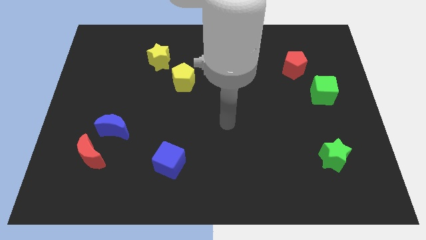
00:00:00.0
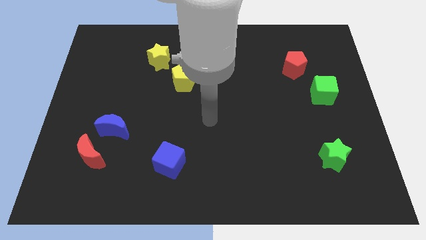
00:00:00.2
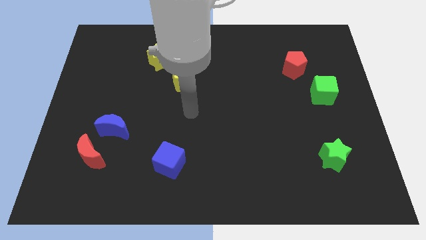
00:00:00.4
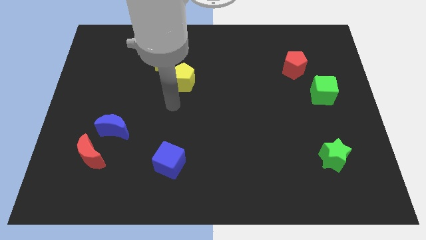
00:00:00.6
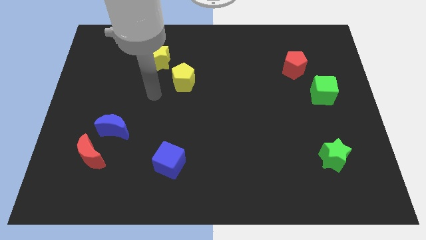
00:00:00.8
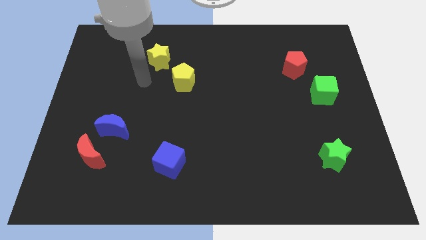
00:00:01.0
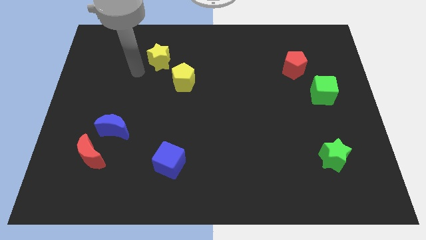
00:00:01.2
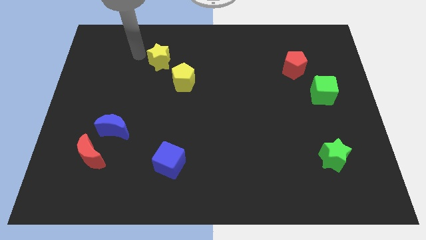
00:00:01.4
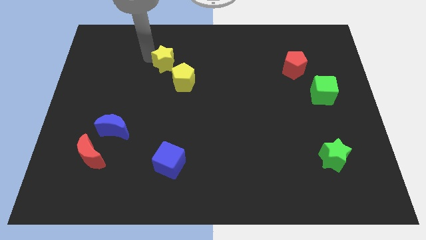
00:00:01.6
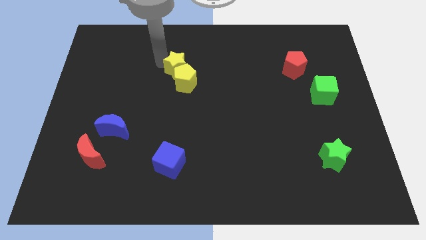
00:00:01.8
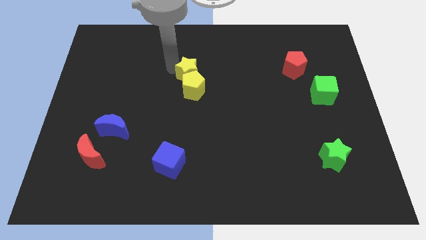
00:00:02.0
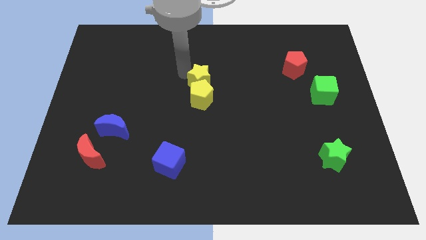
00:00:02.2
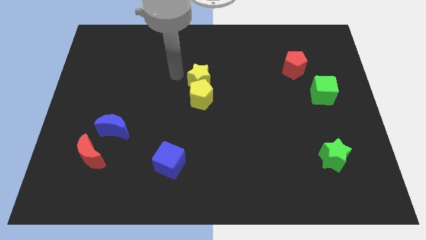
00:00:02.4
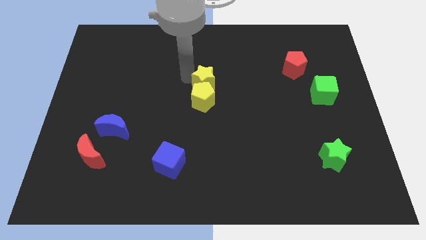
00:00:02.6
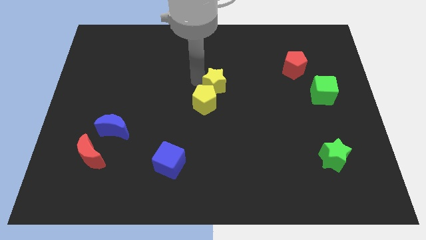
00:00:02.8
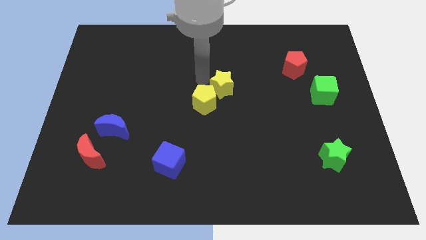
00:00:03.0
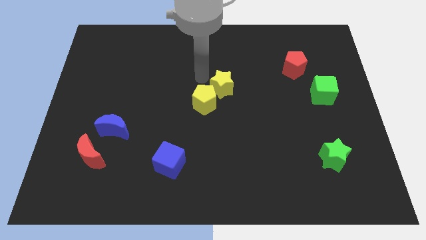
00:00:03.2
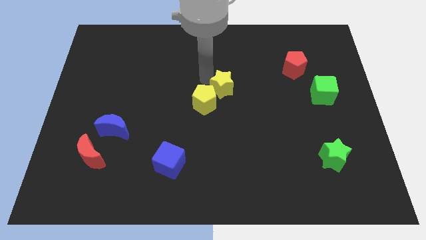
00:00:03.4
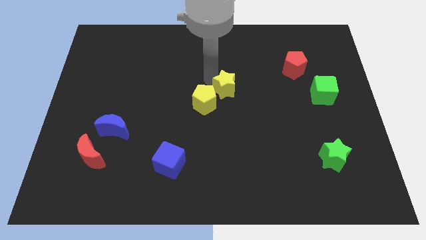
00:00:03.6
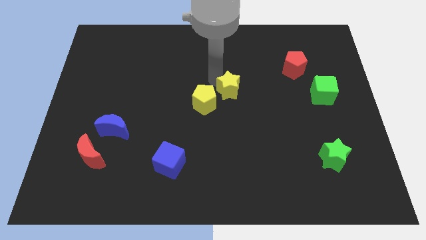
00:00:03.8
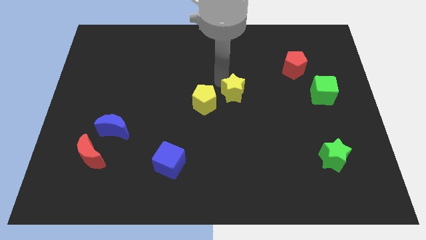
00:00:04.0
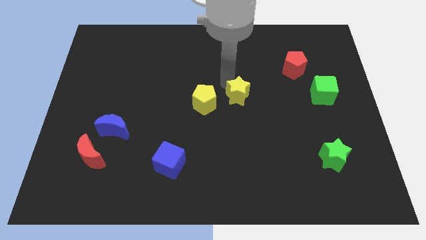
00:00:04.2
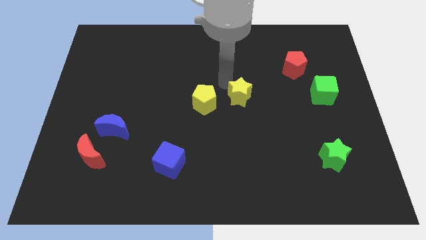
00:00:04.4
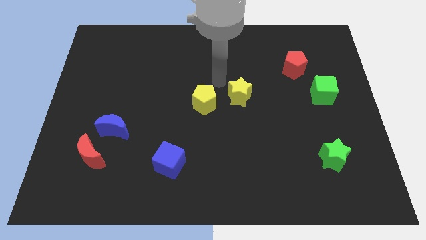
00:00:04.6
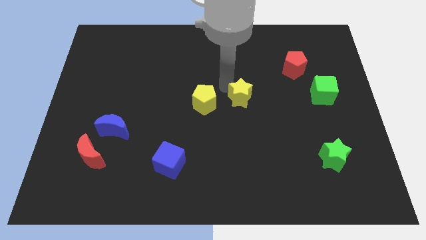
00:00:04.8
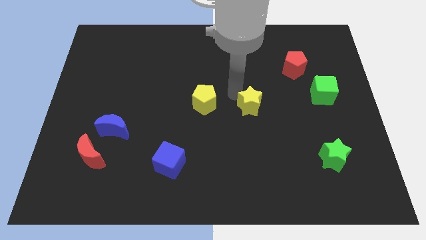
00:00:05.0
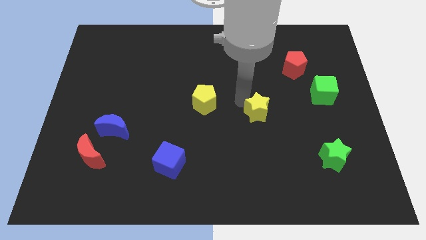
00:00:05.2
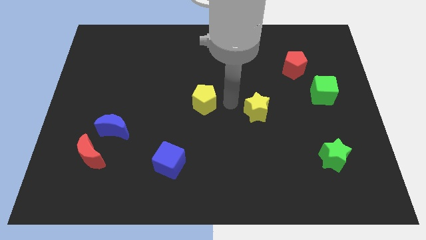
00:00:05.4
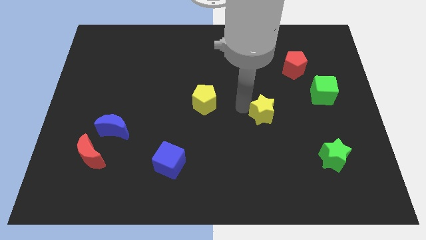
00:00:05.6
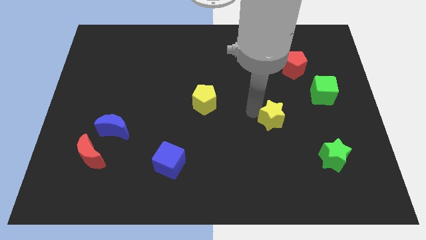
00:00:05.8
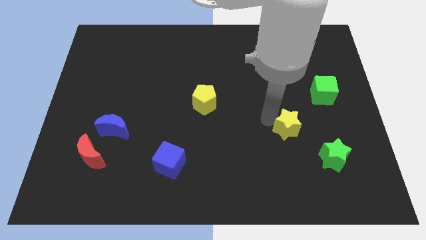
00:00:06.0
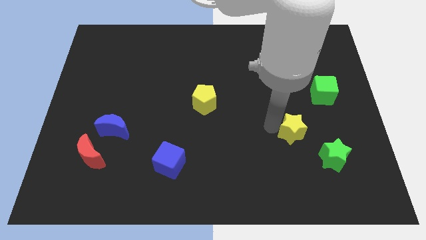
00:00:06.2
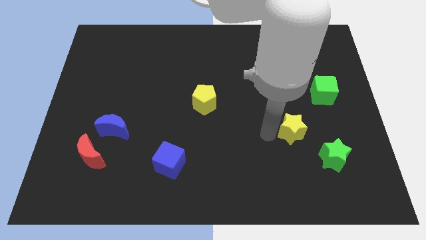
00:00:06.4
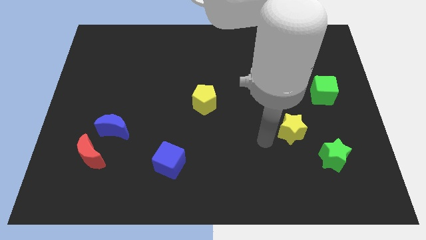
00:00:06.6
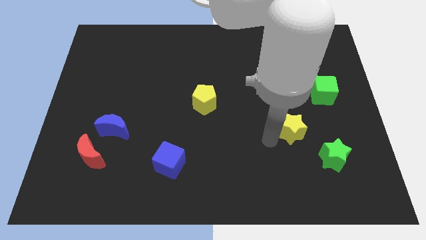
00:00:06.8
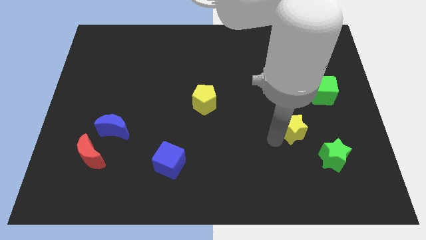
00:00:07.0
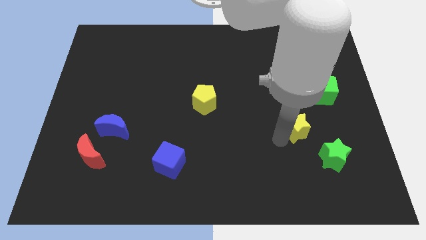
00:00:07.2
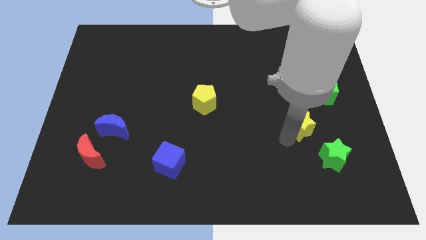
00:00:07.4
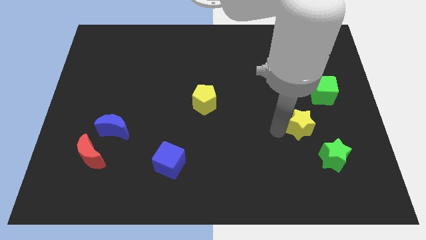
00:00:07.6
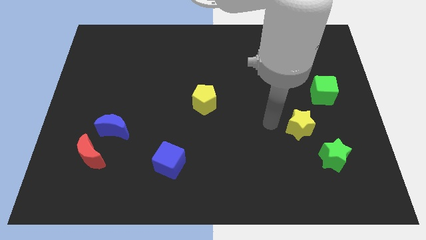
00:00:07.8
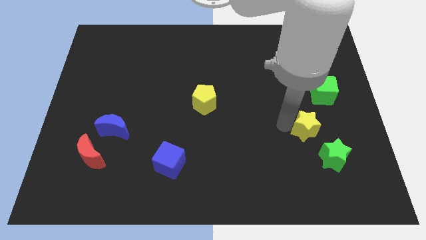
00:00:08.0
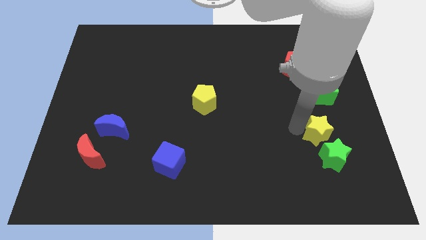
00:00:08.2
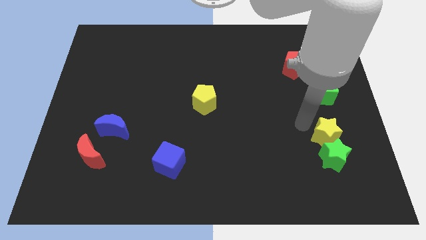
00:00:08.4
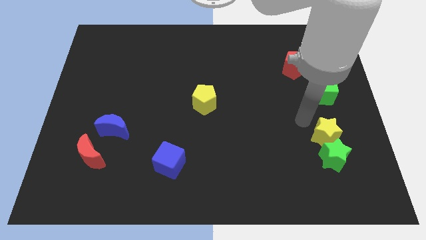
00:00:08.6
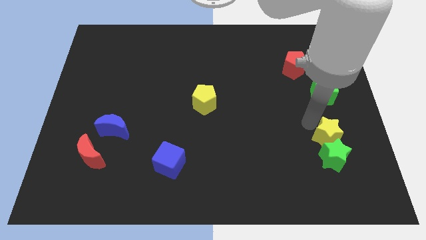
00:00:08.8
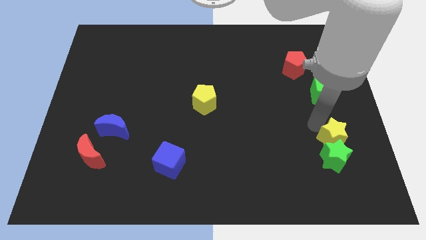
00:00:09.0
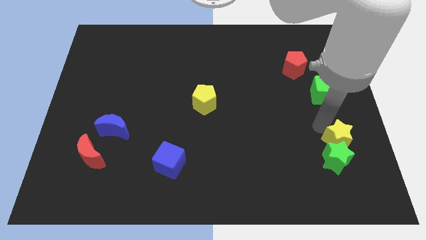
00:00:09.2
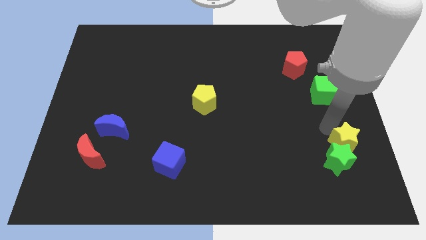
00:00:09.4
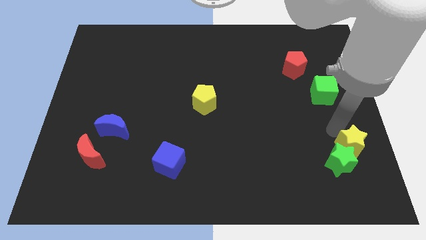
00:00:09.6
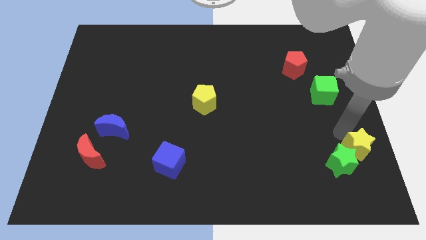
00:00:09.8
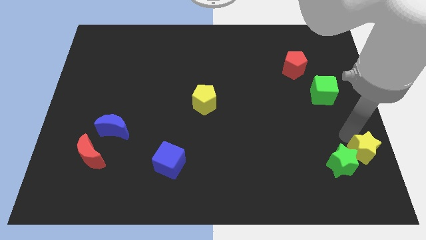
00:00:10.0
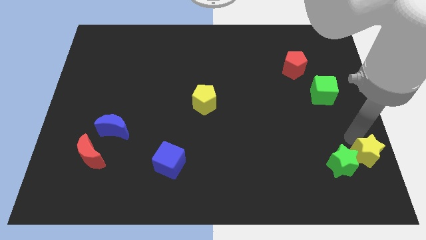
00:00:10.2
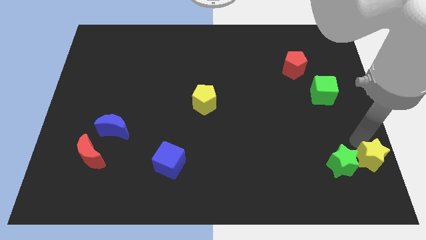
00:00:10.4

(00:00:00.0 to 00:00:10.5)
push the yellow star to the bottom right

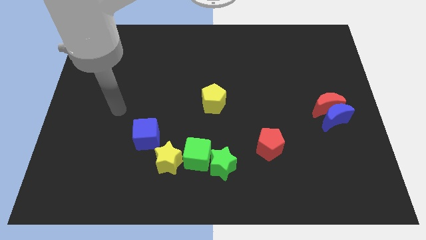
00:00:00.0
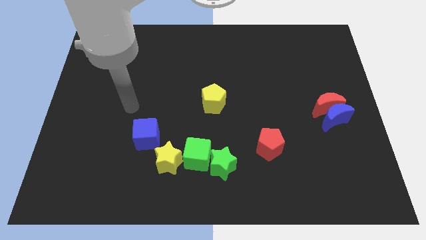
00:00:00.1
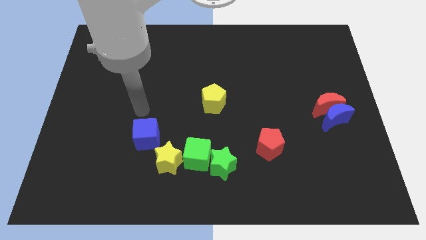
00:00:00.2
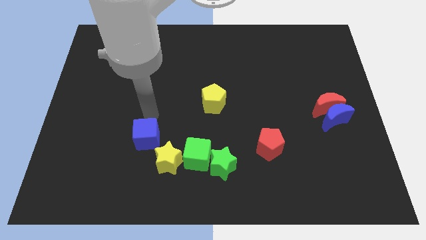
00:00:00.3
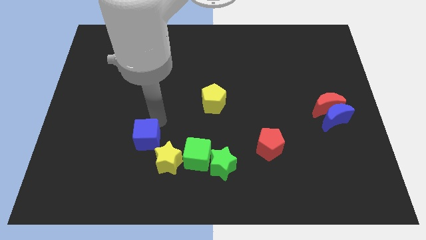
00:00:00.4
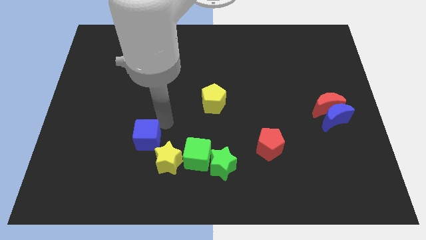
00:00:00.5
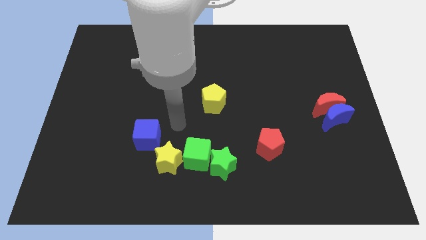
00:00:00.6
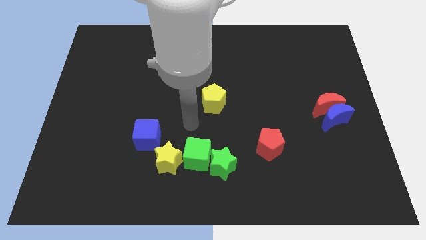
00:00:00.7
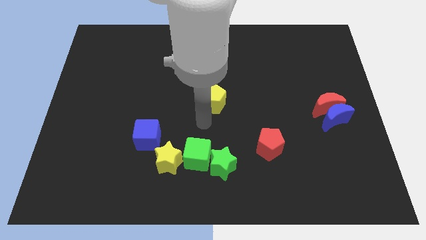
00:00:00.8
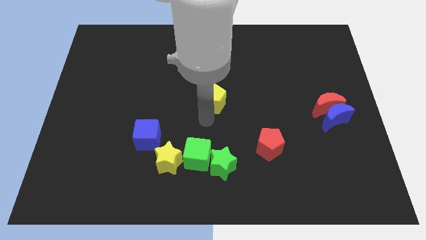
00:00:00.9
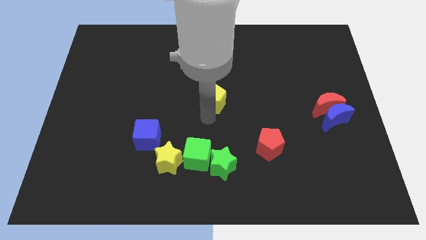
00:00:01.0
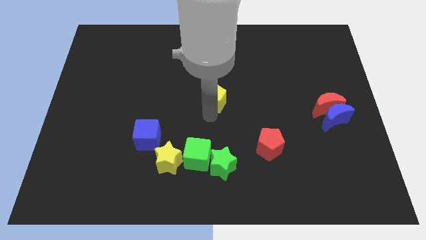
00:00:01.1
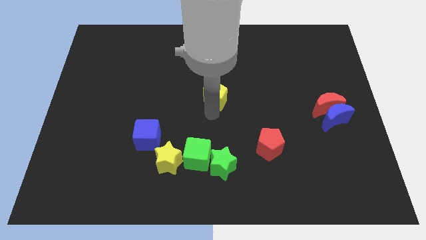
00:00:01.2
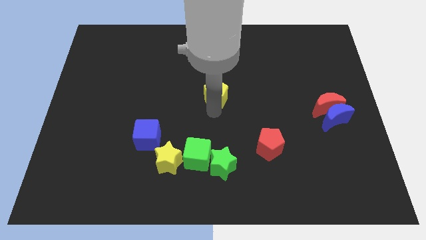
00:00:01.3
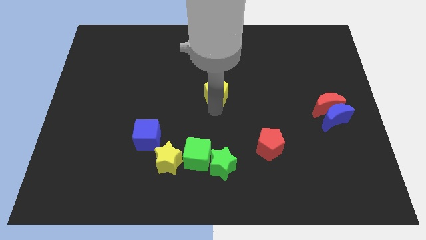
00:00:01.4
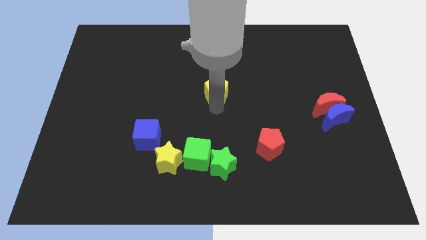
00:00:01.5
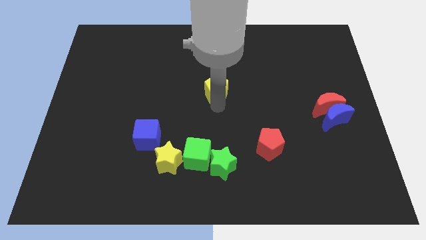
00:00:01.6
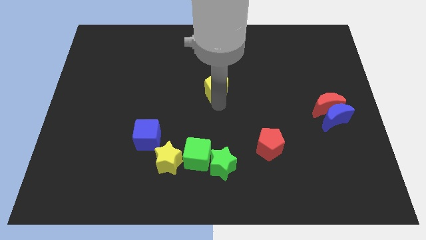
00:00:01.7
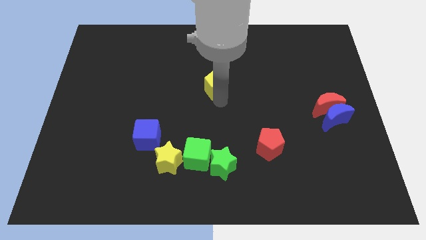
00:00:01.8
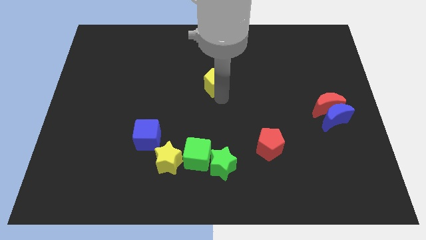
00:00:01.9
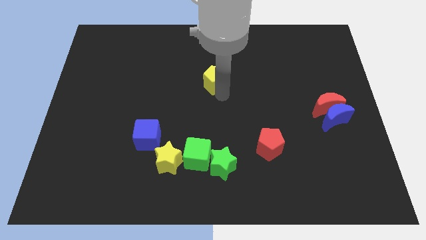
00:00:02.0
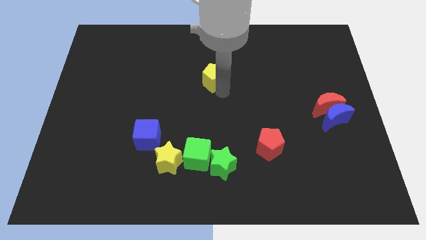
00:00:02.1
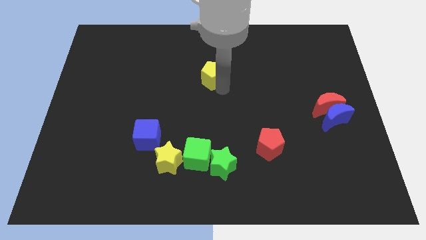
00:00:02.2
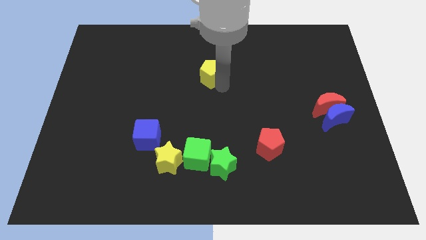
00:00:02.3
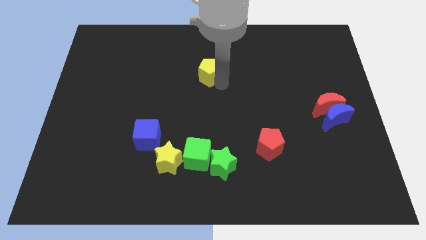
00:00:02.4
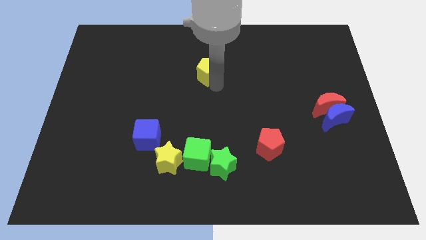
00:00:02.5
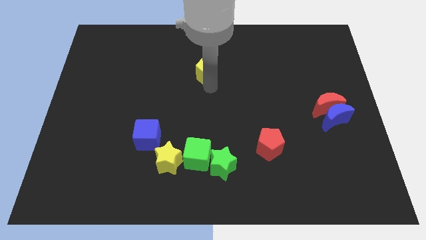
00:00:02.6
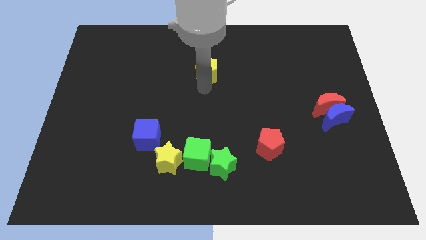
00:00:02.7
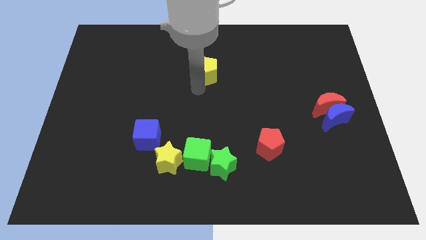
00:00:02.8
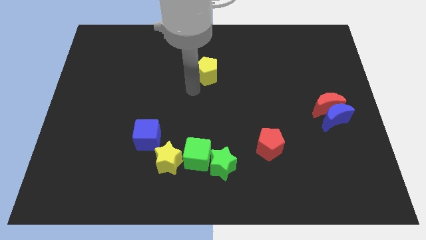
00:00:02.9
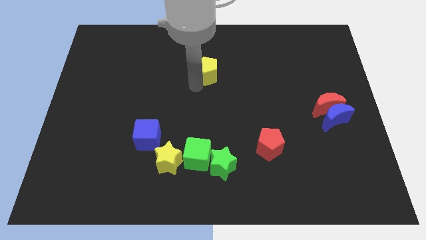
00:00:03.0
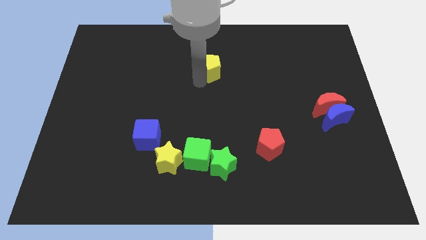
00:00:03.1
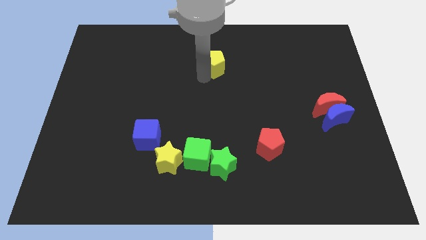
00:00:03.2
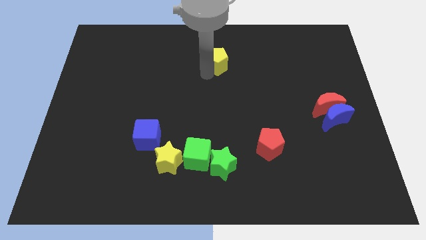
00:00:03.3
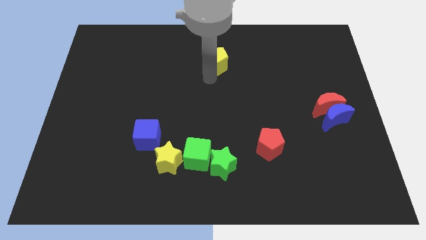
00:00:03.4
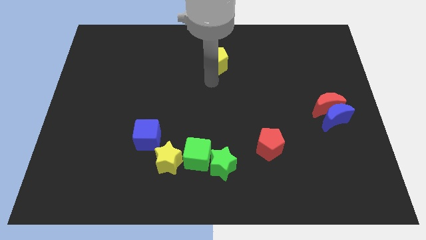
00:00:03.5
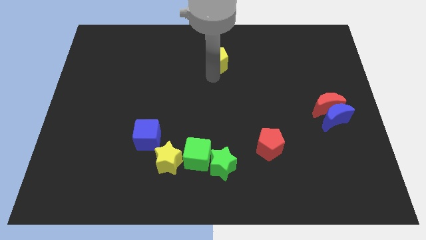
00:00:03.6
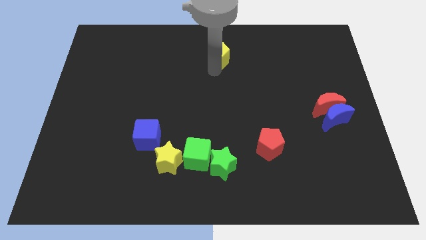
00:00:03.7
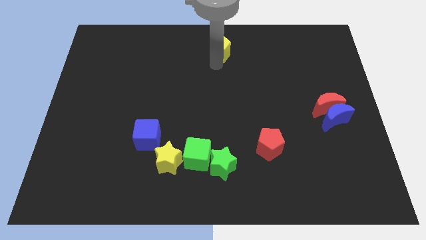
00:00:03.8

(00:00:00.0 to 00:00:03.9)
move the yellow pentagon to the top side
